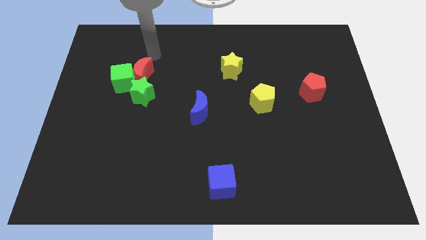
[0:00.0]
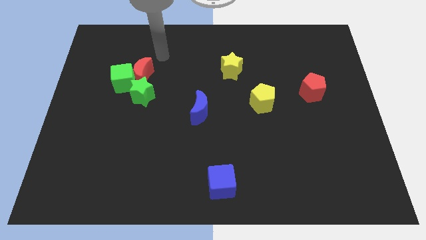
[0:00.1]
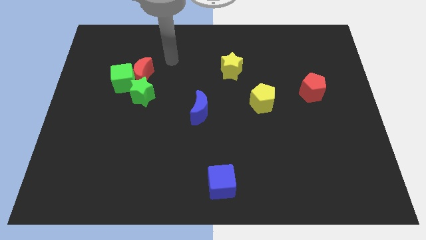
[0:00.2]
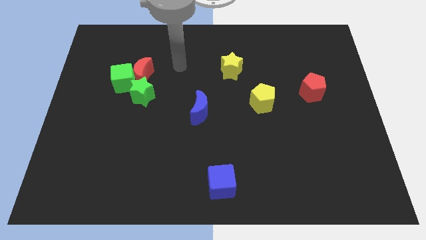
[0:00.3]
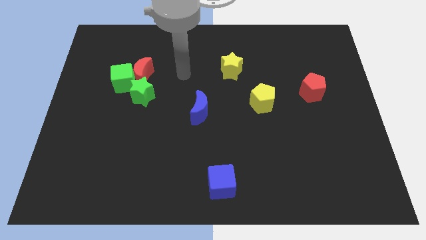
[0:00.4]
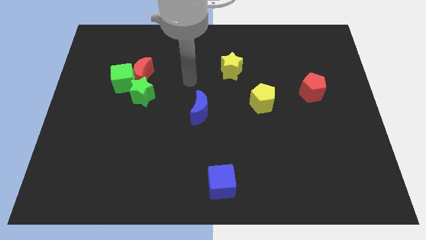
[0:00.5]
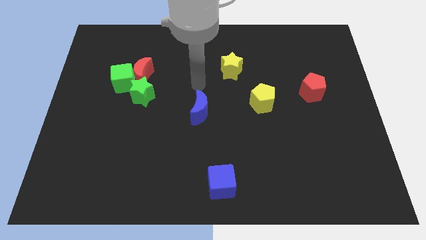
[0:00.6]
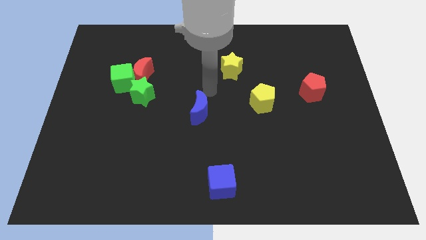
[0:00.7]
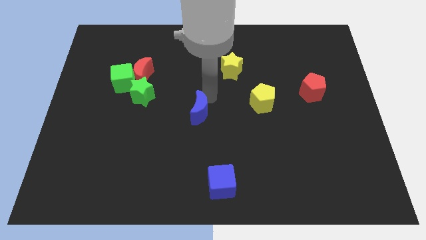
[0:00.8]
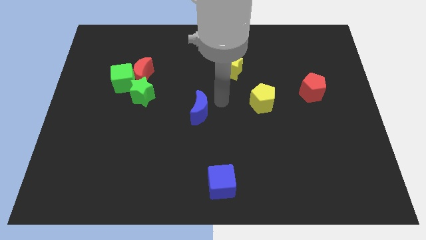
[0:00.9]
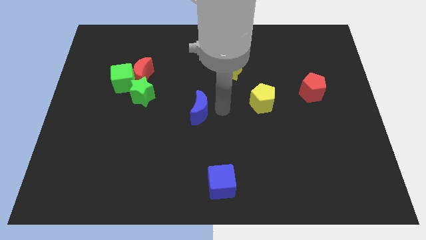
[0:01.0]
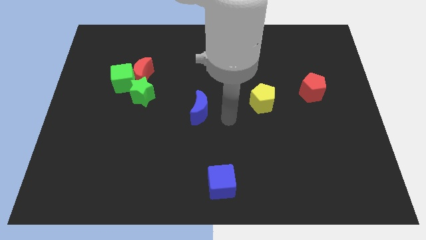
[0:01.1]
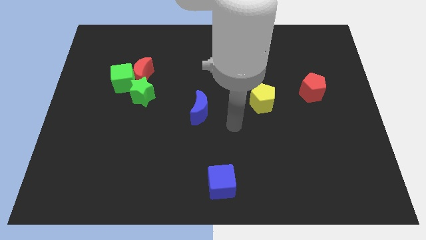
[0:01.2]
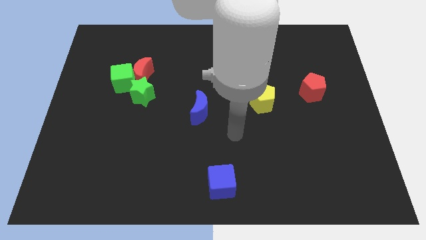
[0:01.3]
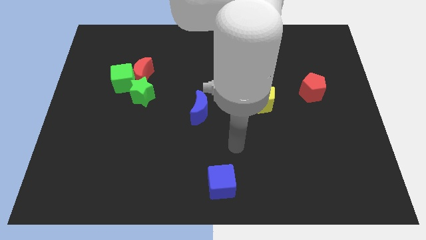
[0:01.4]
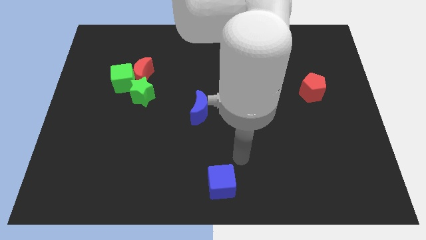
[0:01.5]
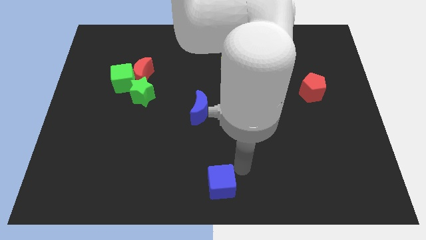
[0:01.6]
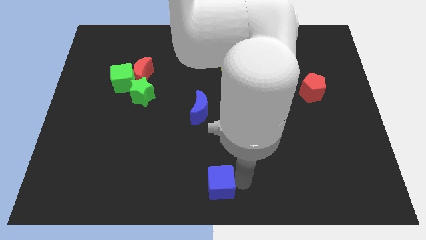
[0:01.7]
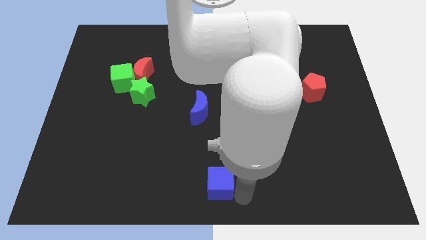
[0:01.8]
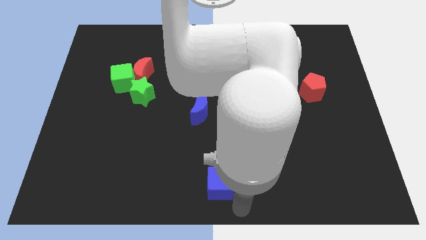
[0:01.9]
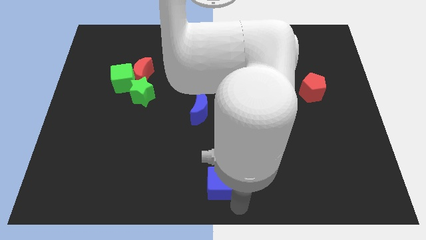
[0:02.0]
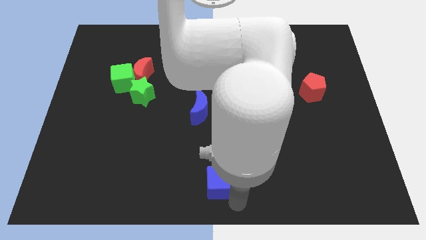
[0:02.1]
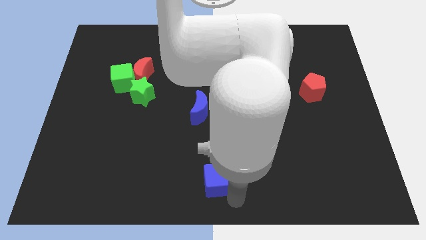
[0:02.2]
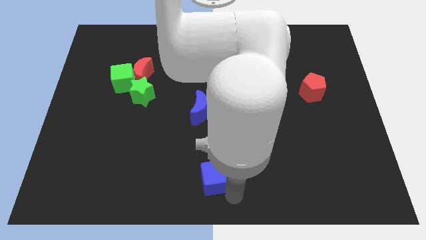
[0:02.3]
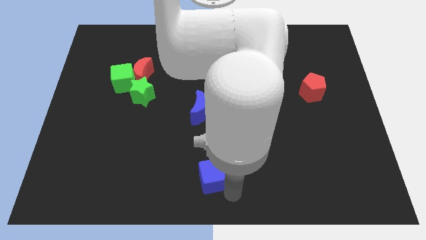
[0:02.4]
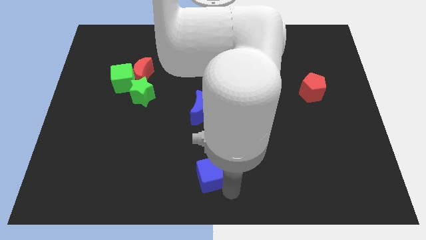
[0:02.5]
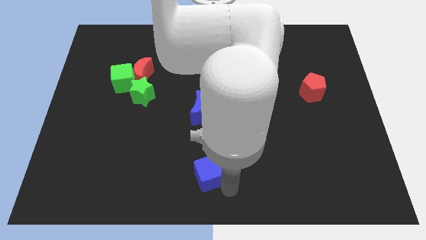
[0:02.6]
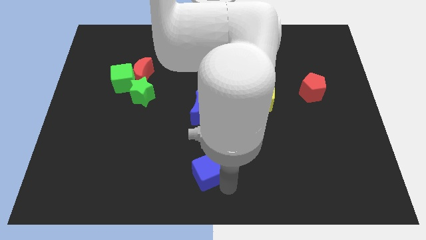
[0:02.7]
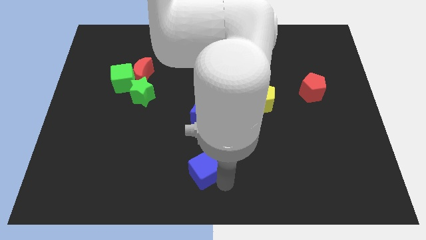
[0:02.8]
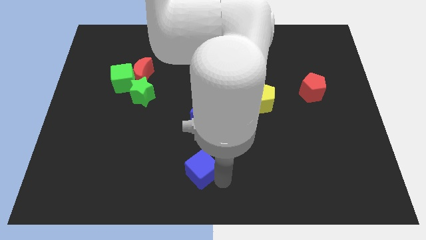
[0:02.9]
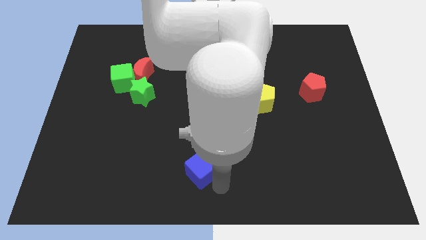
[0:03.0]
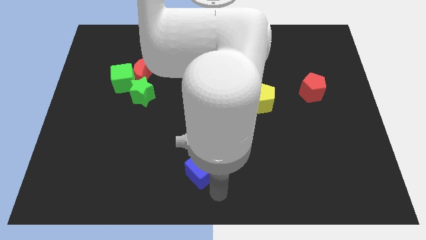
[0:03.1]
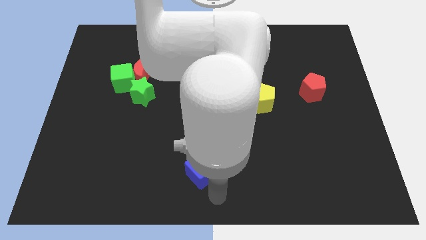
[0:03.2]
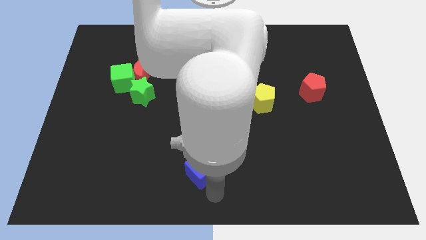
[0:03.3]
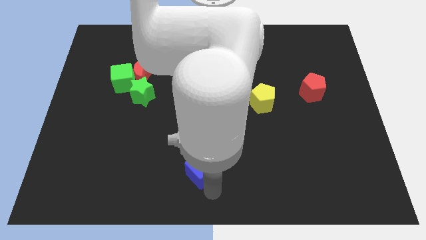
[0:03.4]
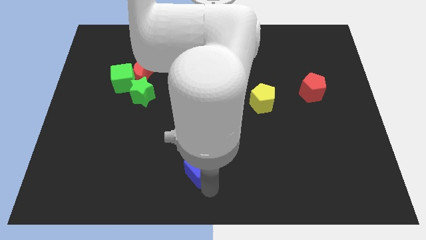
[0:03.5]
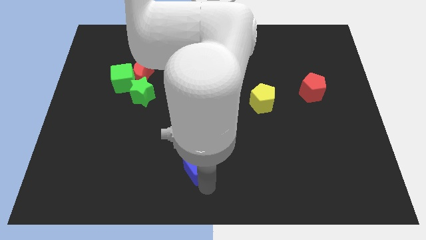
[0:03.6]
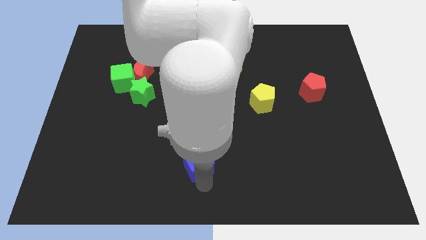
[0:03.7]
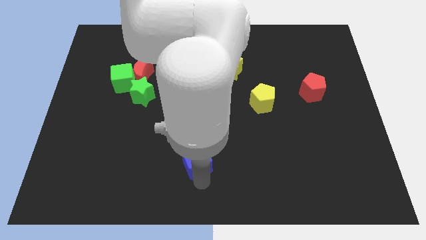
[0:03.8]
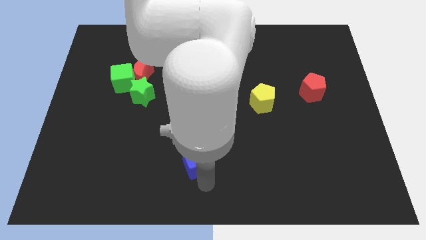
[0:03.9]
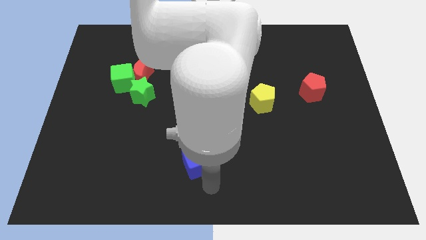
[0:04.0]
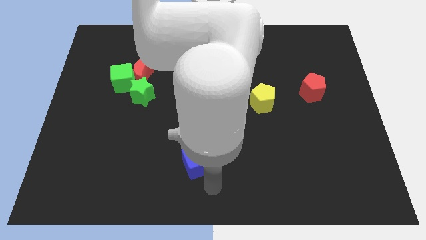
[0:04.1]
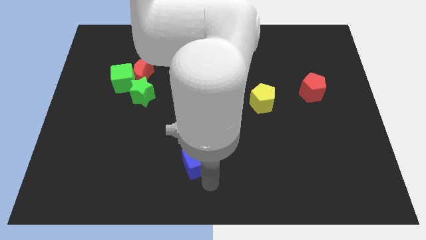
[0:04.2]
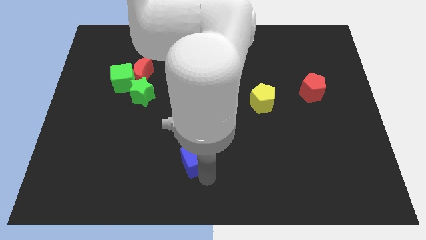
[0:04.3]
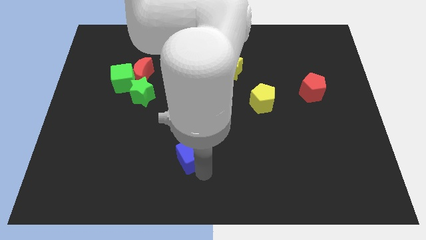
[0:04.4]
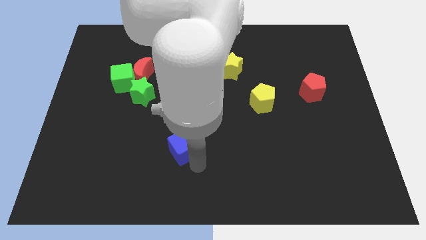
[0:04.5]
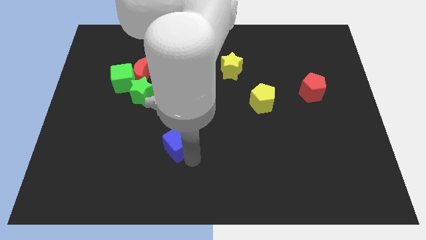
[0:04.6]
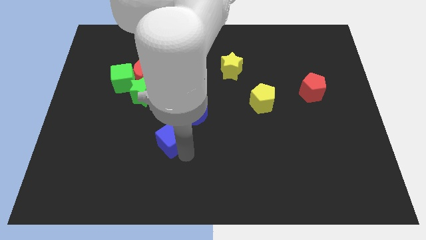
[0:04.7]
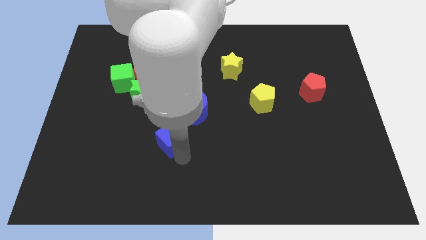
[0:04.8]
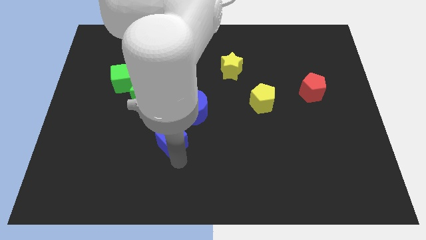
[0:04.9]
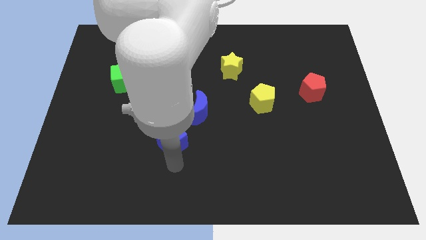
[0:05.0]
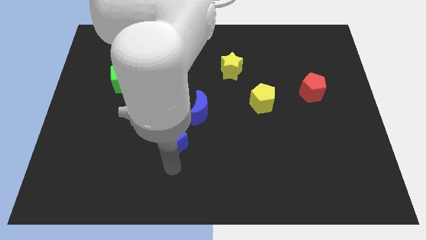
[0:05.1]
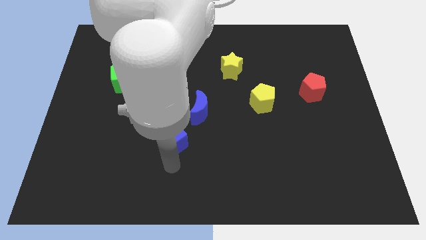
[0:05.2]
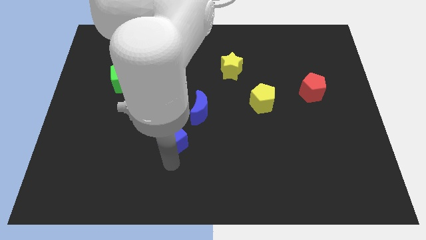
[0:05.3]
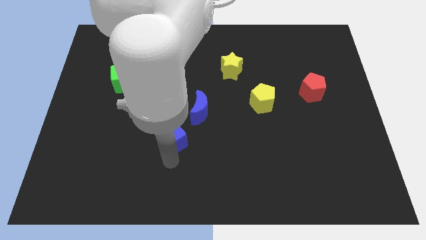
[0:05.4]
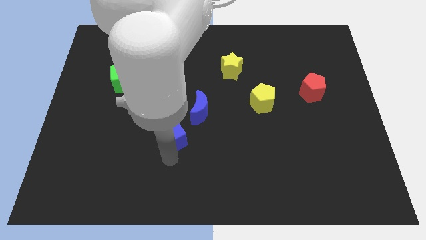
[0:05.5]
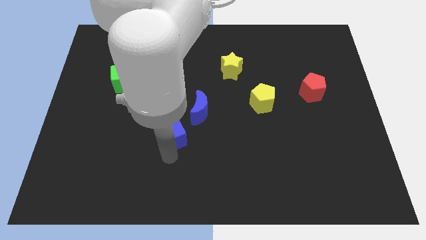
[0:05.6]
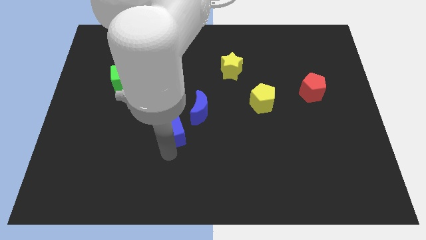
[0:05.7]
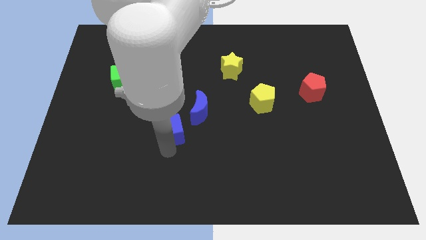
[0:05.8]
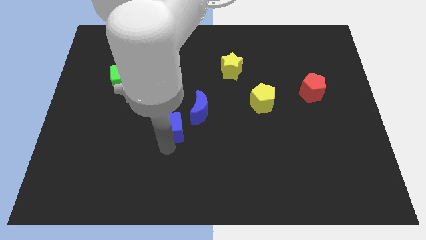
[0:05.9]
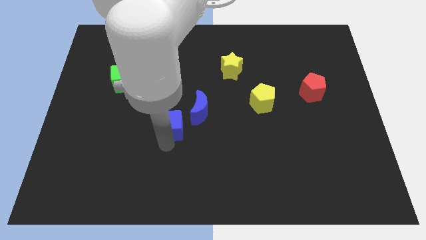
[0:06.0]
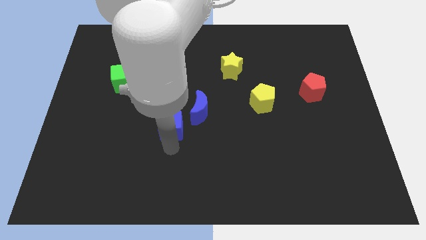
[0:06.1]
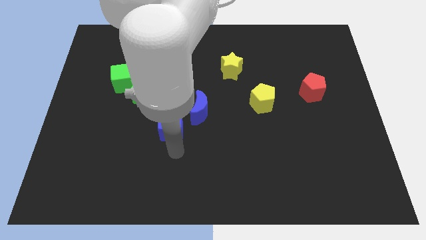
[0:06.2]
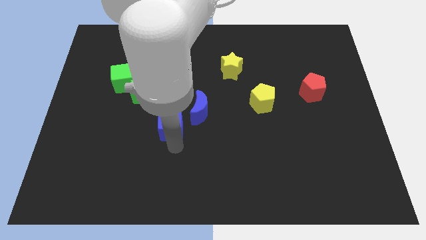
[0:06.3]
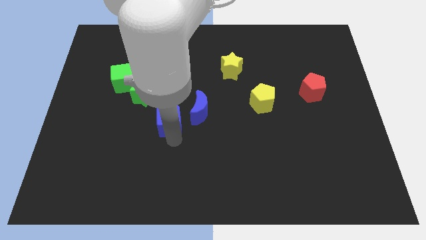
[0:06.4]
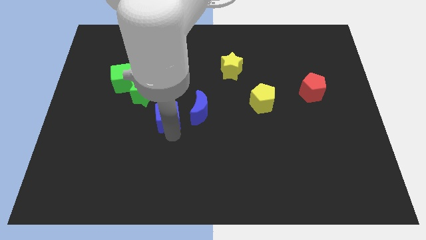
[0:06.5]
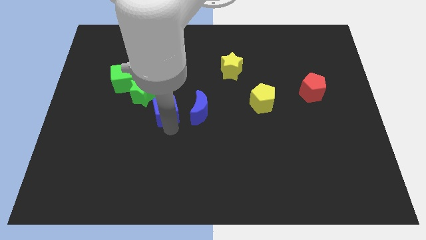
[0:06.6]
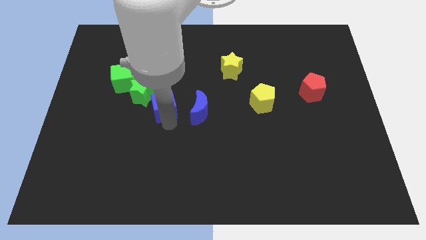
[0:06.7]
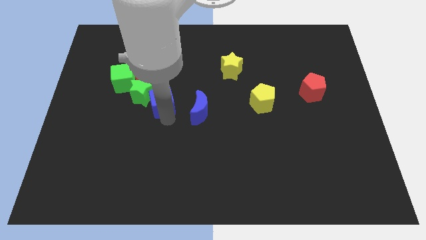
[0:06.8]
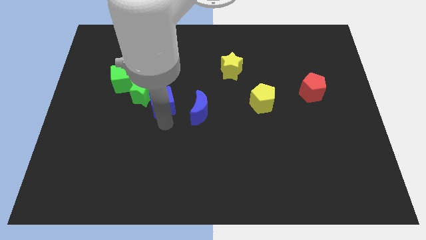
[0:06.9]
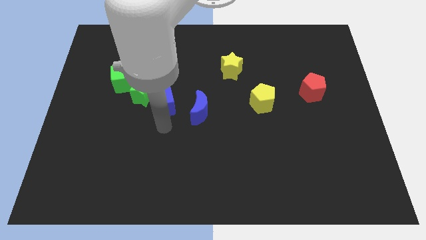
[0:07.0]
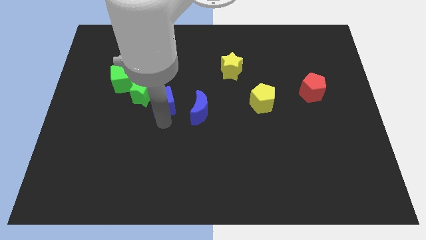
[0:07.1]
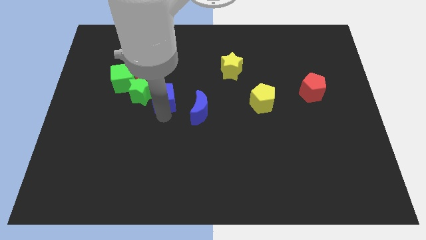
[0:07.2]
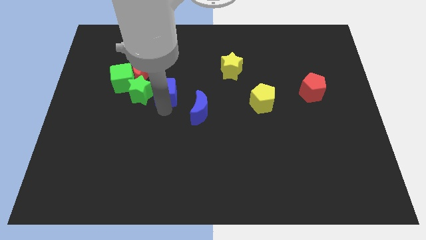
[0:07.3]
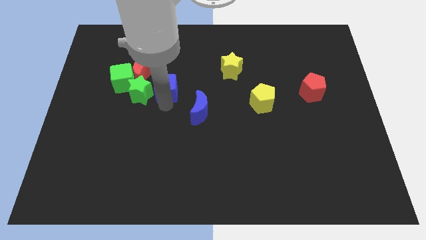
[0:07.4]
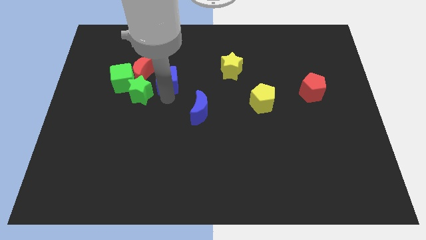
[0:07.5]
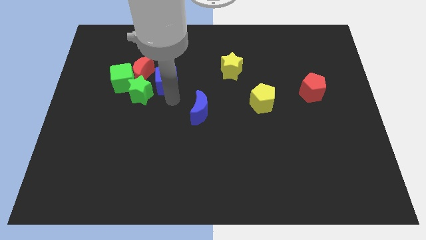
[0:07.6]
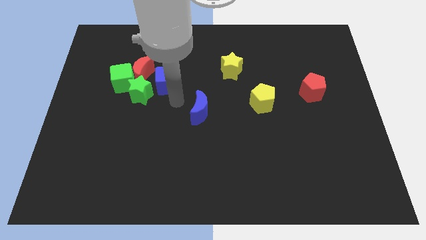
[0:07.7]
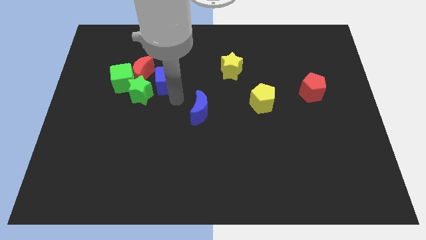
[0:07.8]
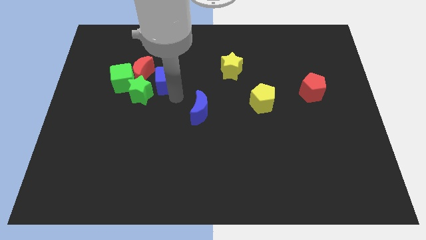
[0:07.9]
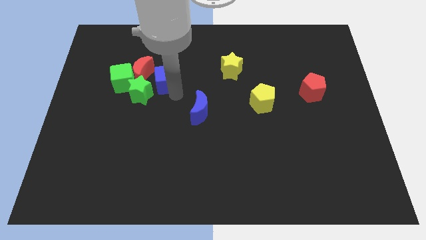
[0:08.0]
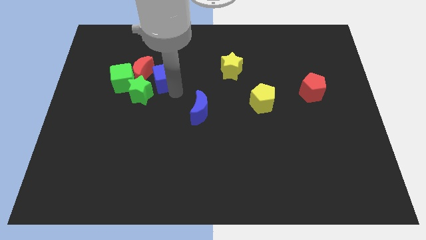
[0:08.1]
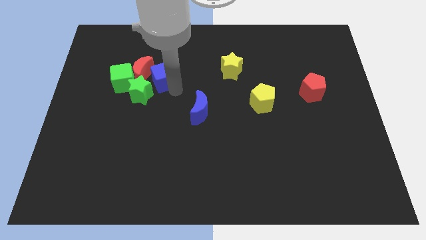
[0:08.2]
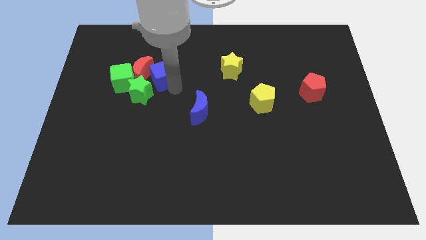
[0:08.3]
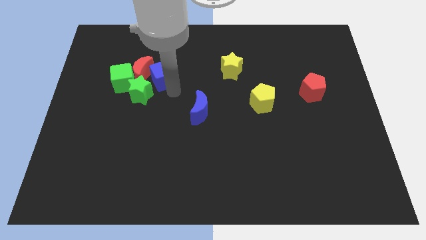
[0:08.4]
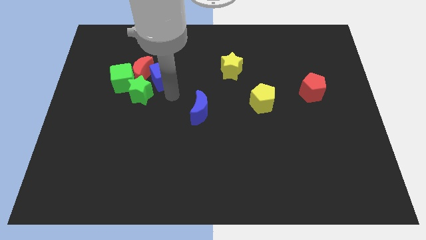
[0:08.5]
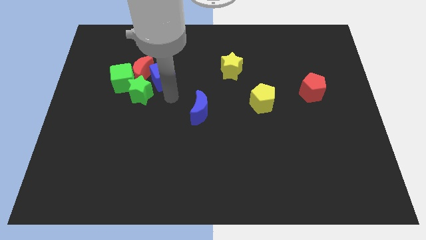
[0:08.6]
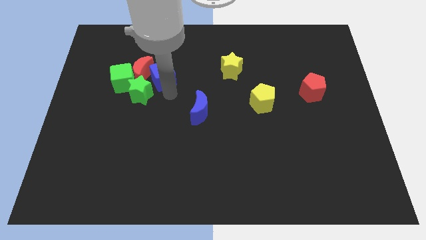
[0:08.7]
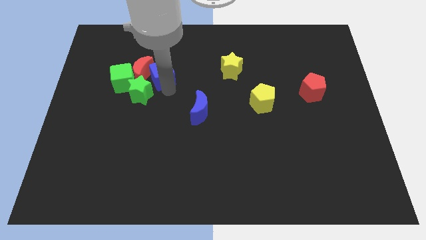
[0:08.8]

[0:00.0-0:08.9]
slide the blue cube to the top of the green star
